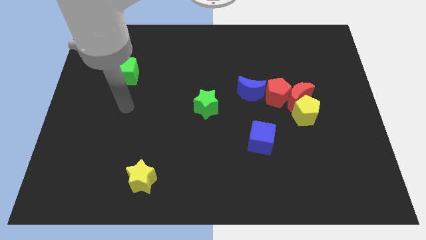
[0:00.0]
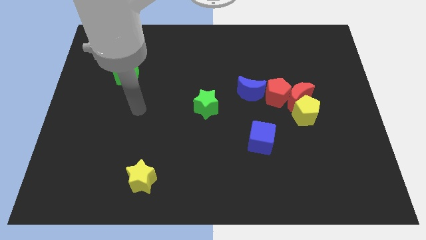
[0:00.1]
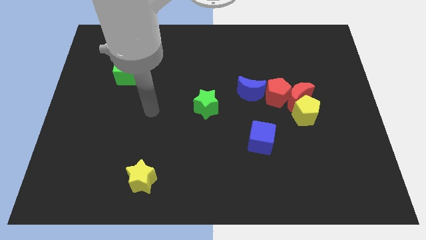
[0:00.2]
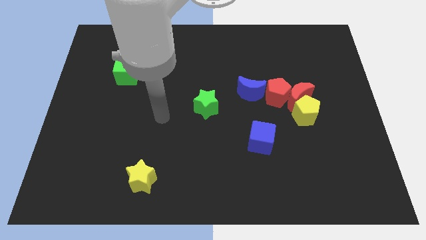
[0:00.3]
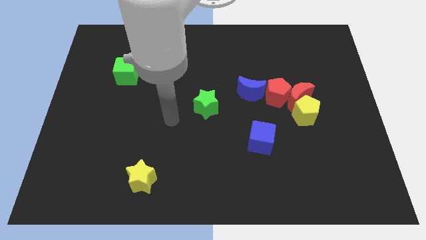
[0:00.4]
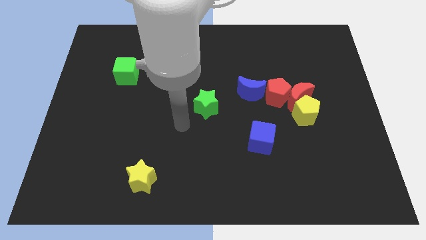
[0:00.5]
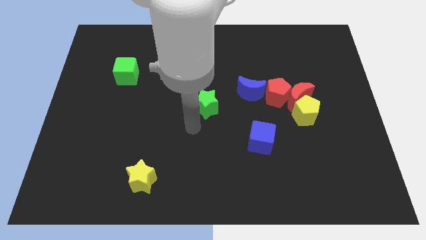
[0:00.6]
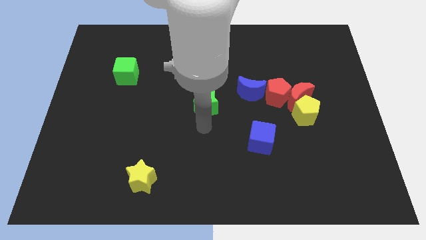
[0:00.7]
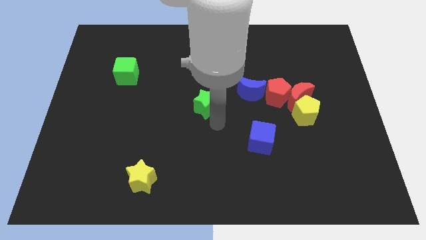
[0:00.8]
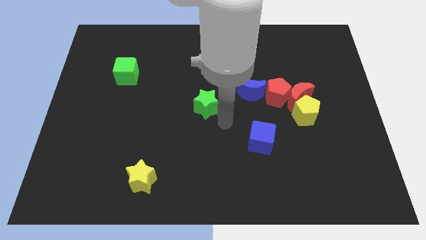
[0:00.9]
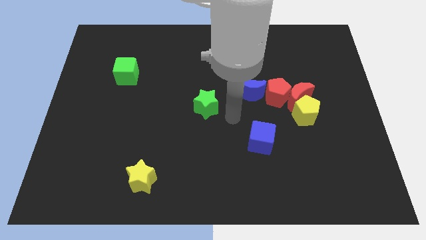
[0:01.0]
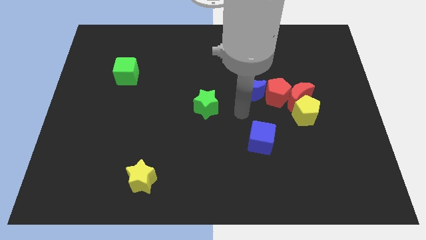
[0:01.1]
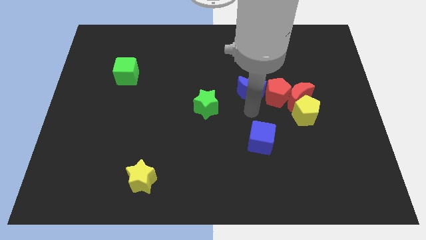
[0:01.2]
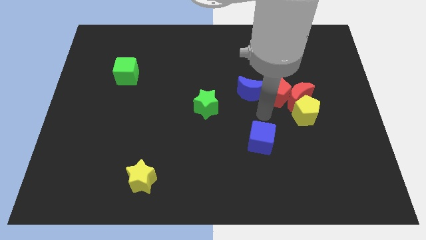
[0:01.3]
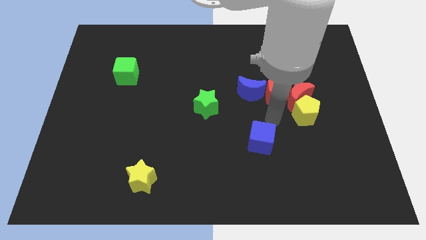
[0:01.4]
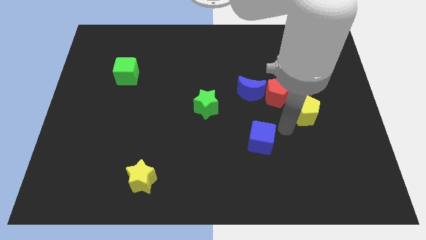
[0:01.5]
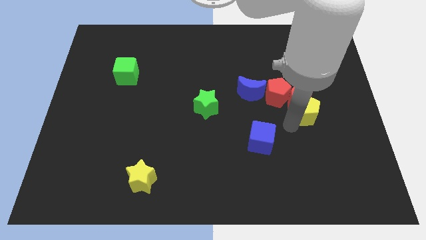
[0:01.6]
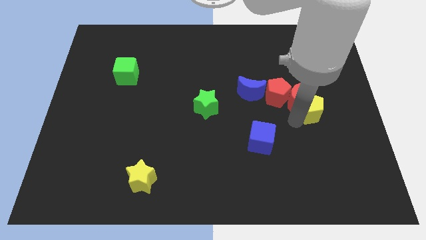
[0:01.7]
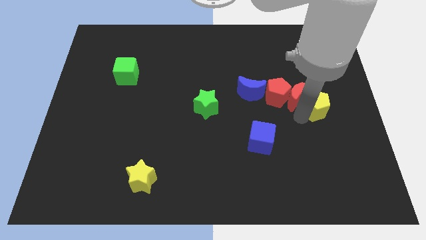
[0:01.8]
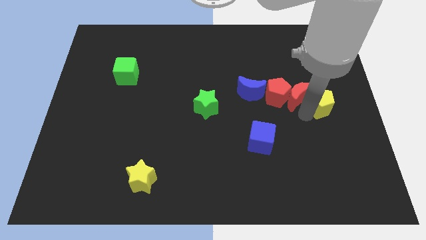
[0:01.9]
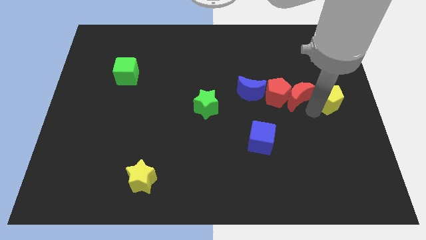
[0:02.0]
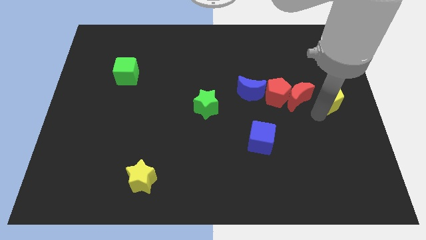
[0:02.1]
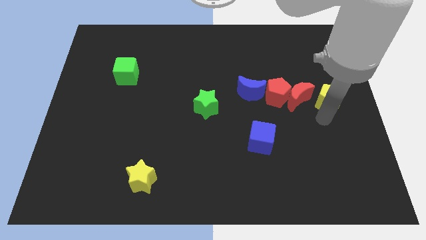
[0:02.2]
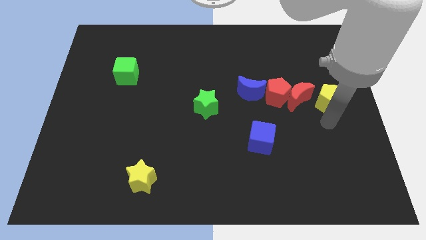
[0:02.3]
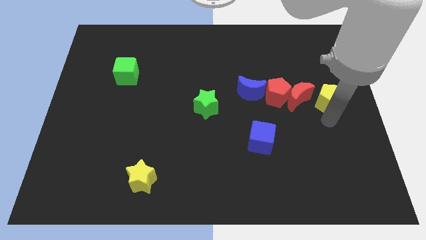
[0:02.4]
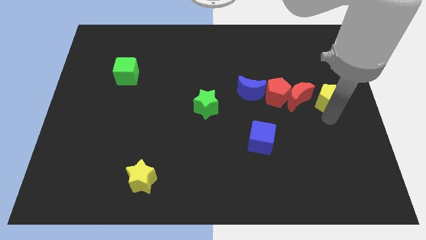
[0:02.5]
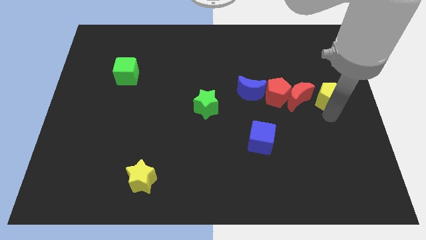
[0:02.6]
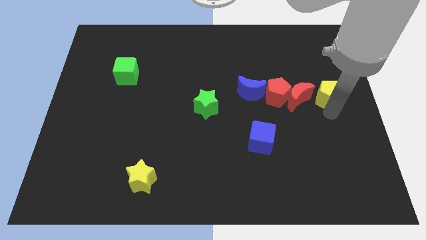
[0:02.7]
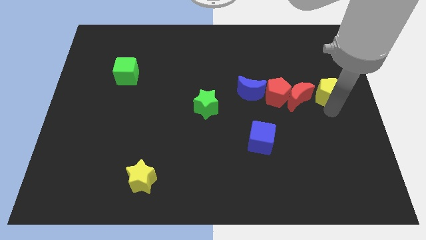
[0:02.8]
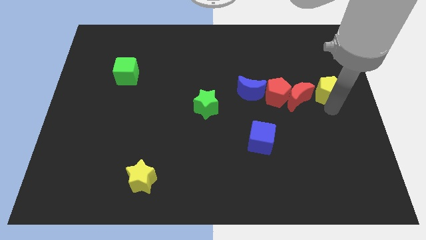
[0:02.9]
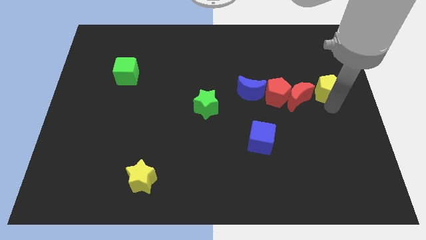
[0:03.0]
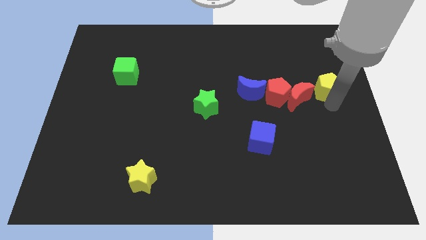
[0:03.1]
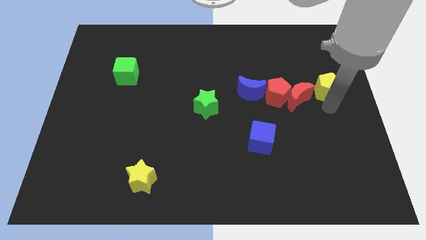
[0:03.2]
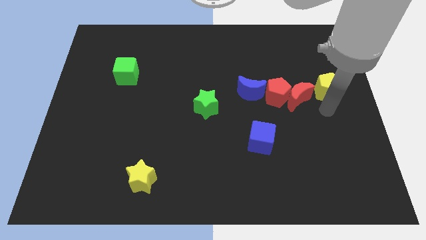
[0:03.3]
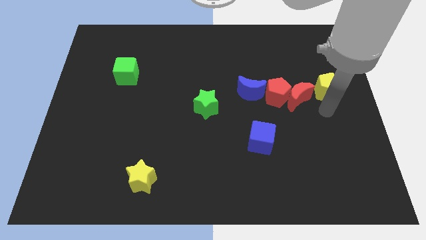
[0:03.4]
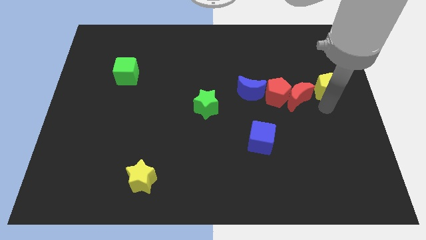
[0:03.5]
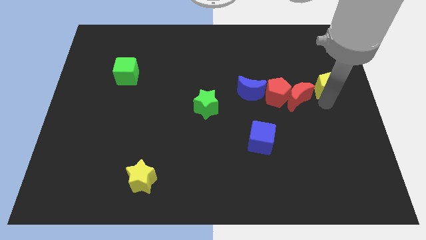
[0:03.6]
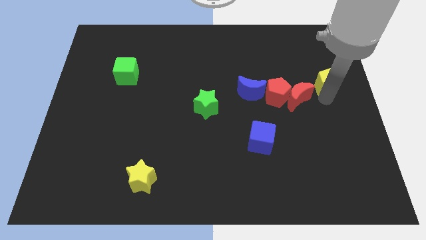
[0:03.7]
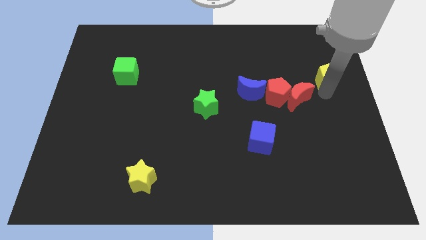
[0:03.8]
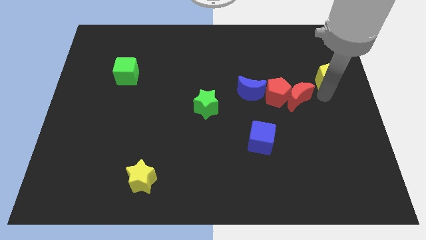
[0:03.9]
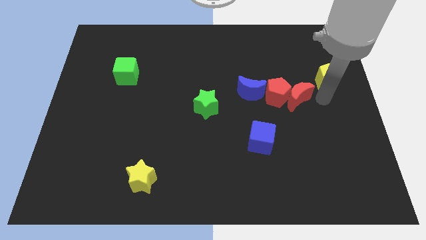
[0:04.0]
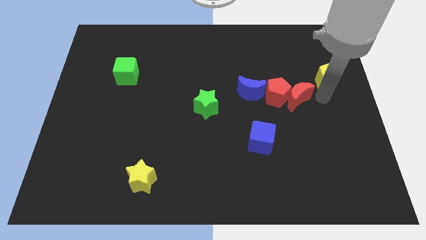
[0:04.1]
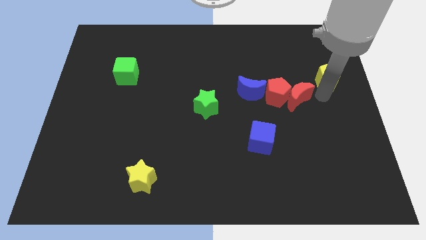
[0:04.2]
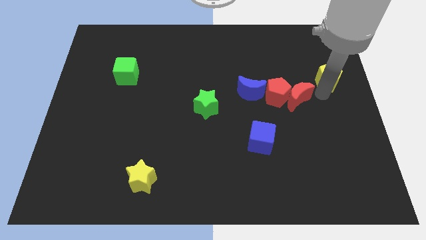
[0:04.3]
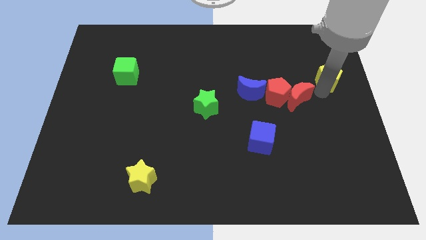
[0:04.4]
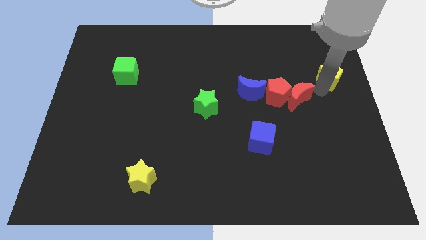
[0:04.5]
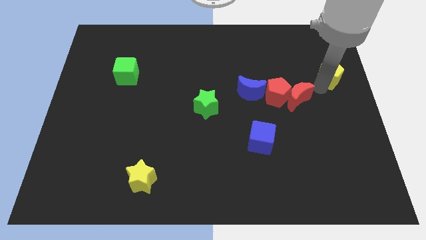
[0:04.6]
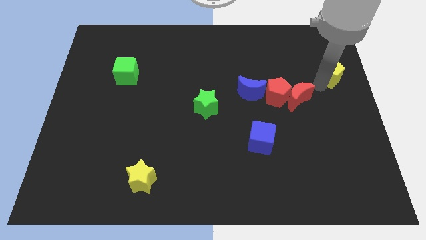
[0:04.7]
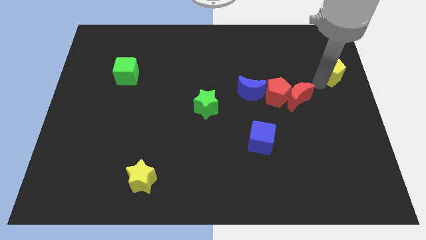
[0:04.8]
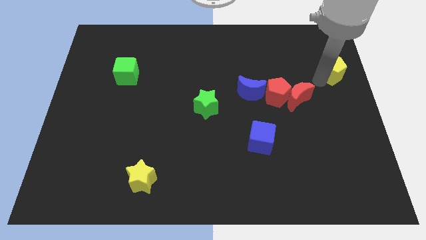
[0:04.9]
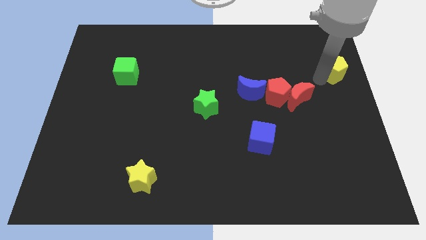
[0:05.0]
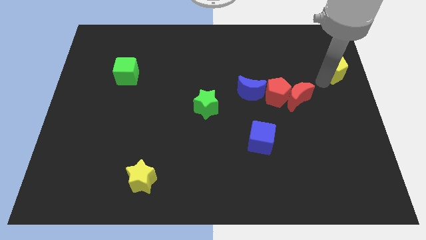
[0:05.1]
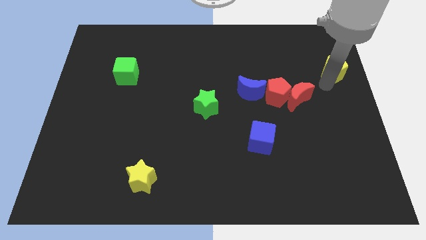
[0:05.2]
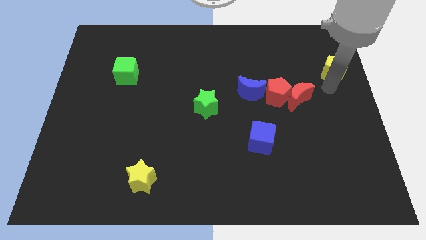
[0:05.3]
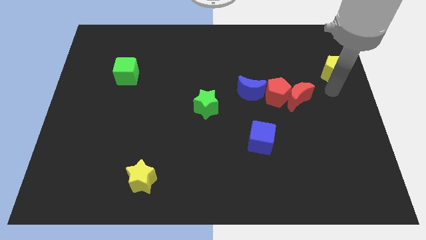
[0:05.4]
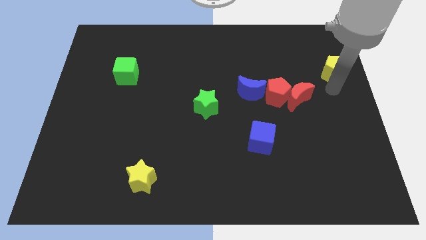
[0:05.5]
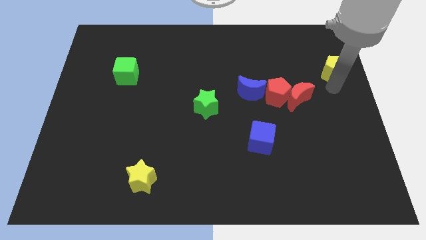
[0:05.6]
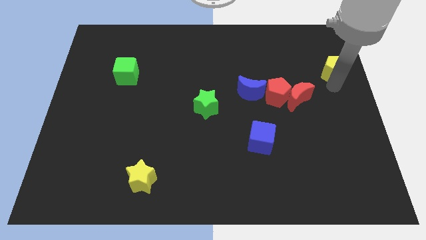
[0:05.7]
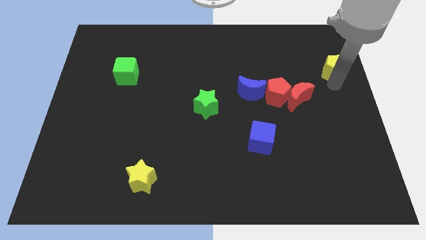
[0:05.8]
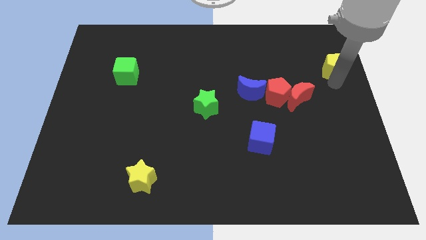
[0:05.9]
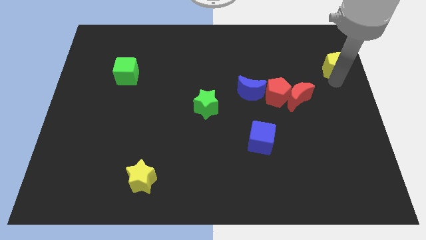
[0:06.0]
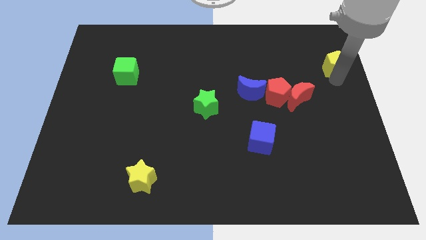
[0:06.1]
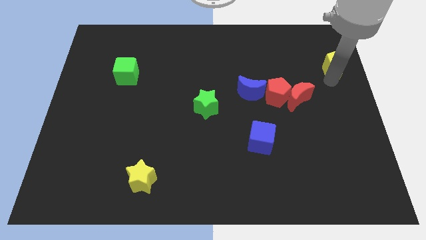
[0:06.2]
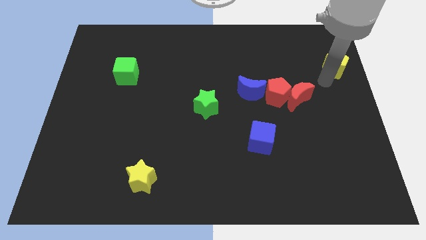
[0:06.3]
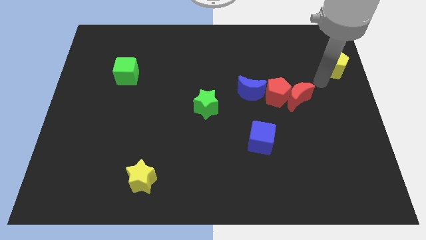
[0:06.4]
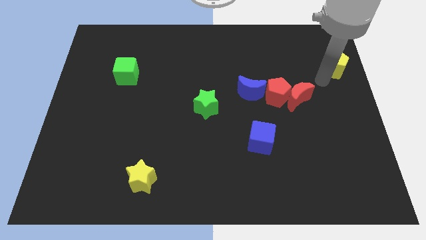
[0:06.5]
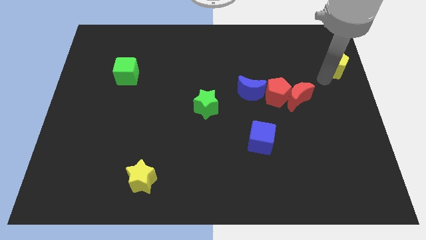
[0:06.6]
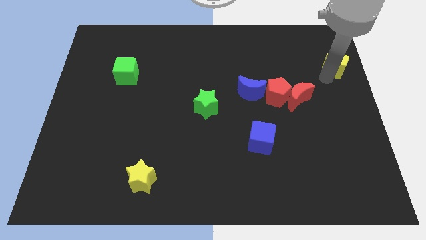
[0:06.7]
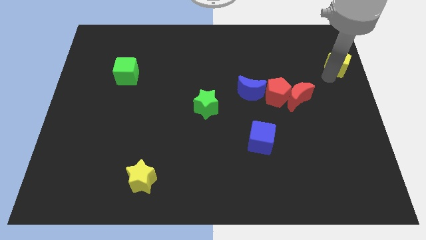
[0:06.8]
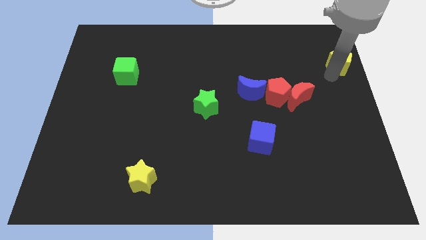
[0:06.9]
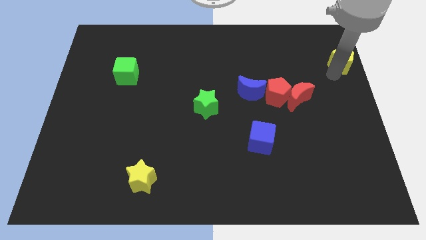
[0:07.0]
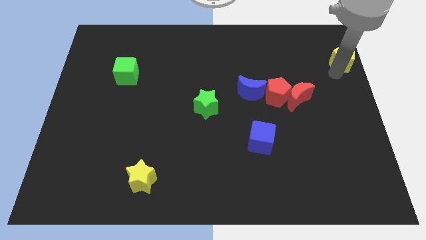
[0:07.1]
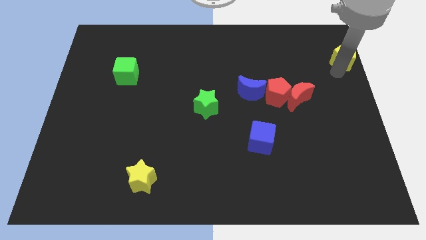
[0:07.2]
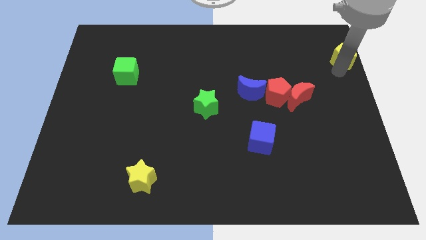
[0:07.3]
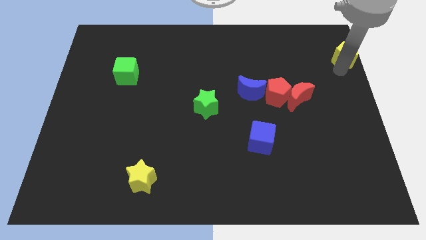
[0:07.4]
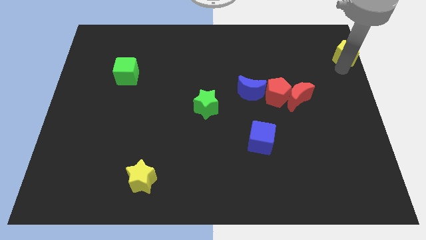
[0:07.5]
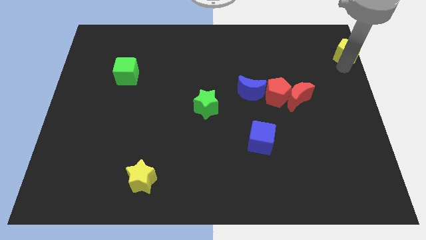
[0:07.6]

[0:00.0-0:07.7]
move the yellow pentagon to the upper right corner
